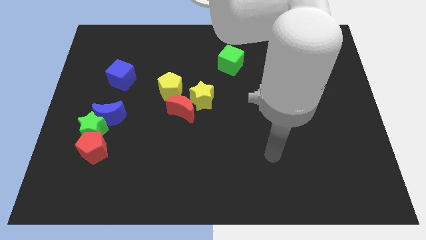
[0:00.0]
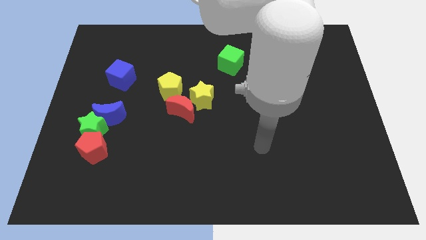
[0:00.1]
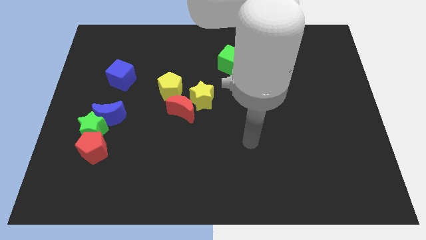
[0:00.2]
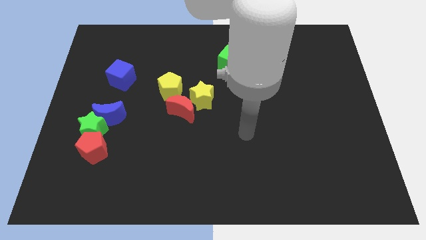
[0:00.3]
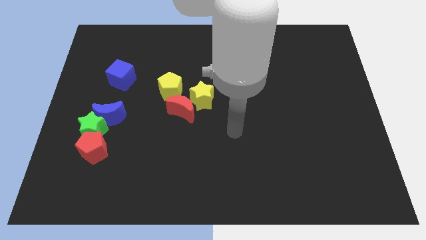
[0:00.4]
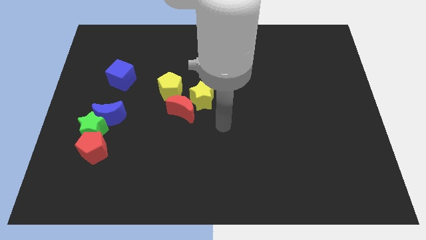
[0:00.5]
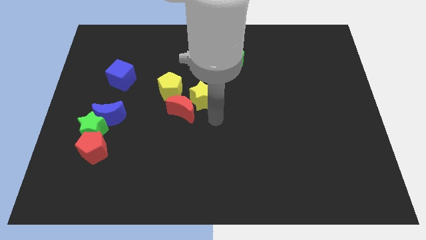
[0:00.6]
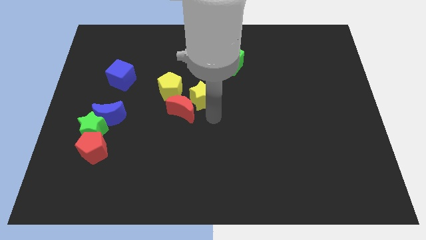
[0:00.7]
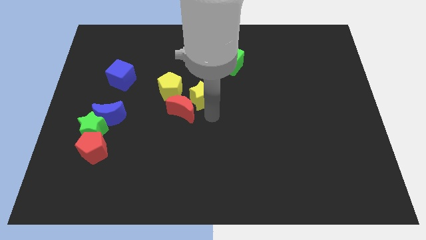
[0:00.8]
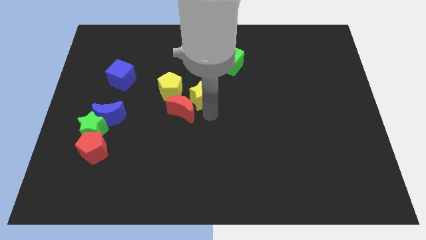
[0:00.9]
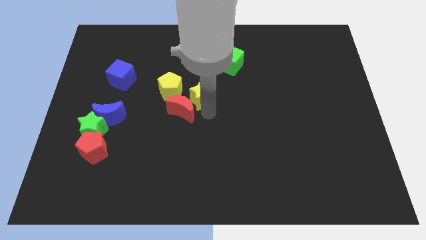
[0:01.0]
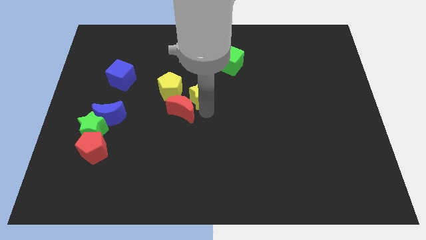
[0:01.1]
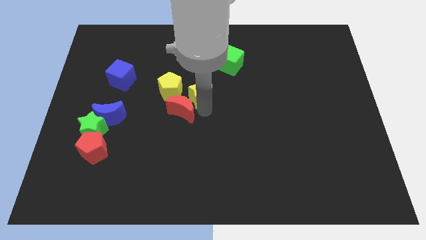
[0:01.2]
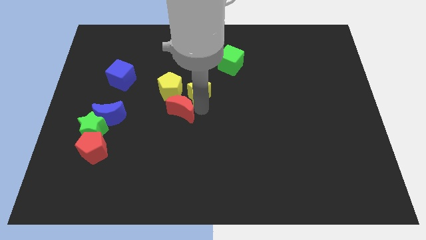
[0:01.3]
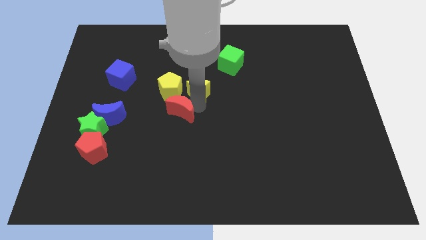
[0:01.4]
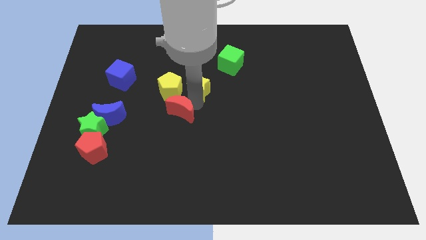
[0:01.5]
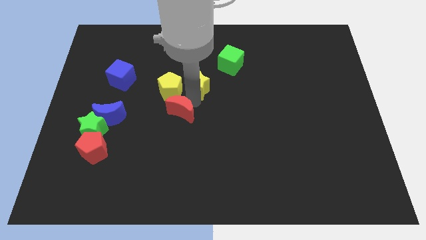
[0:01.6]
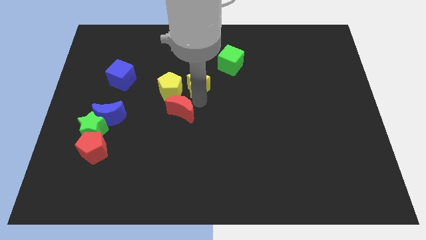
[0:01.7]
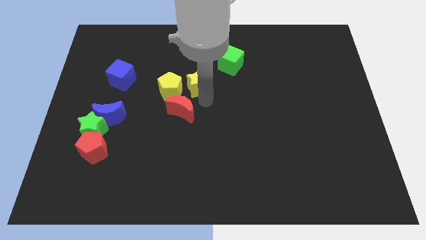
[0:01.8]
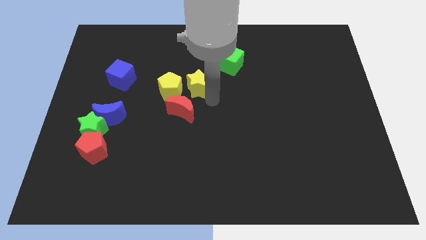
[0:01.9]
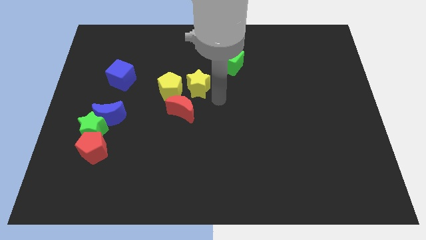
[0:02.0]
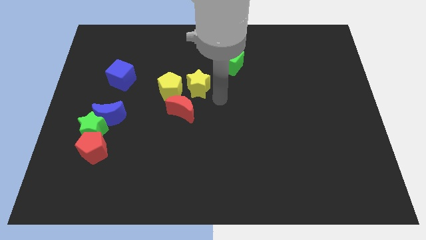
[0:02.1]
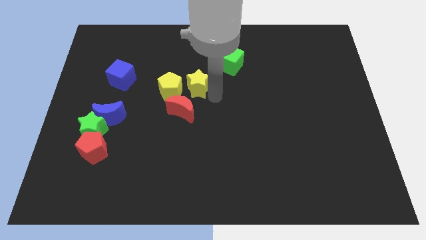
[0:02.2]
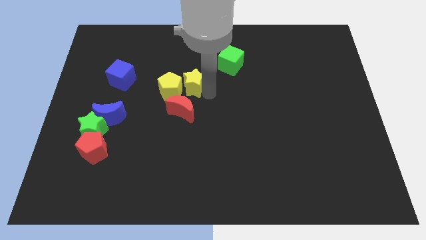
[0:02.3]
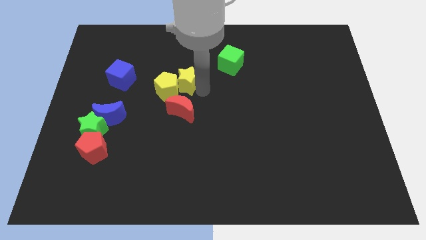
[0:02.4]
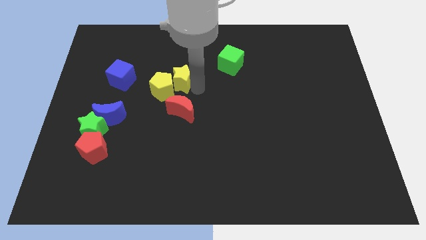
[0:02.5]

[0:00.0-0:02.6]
slightly move the yellow star upwards and then left

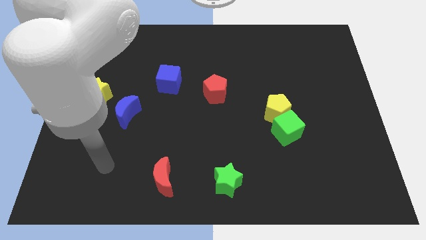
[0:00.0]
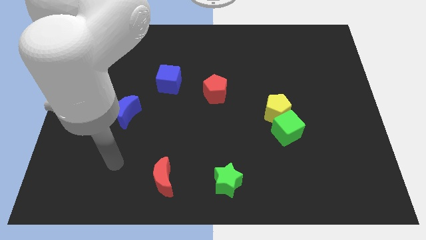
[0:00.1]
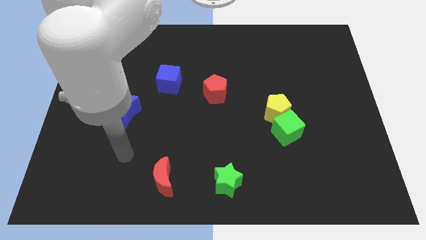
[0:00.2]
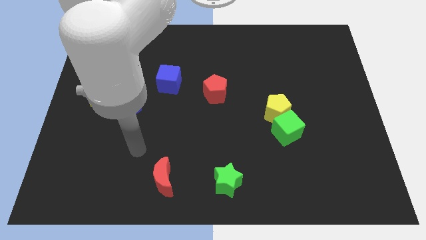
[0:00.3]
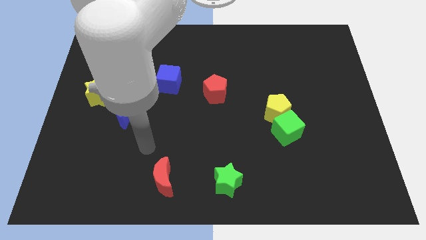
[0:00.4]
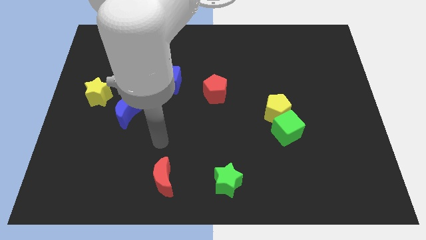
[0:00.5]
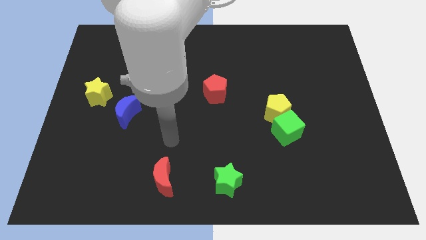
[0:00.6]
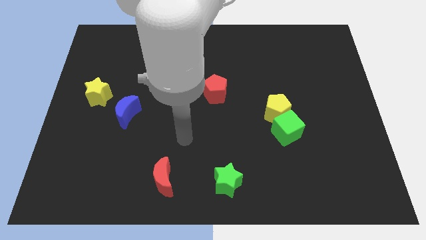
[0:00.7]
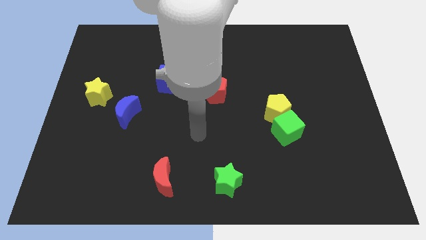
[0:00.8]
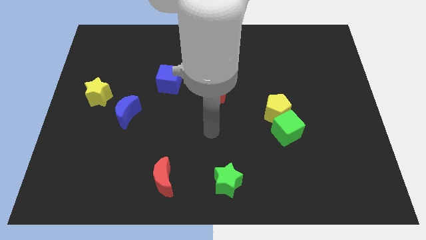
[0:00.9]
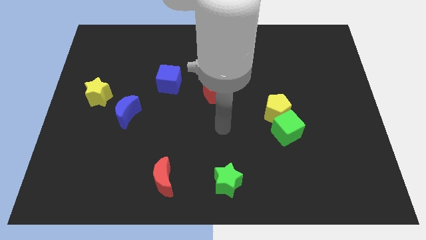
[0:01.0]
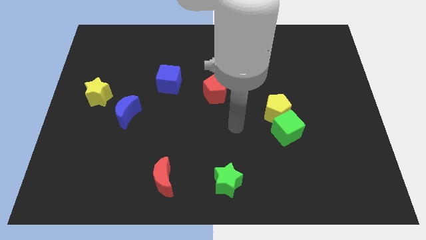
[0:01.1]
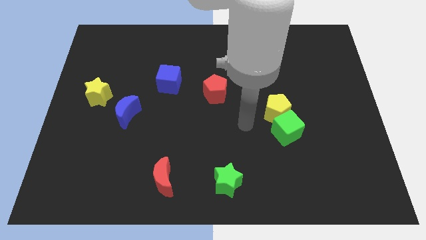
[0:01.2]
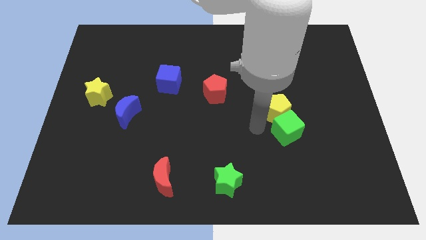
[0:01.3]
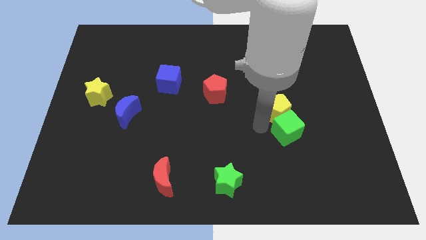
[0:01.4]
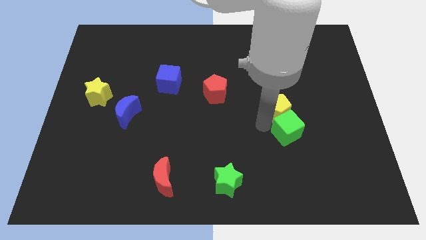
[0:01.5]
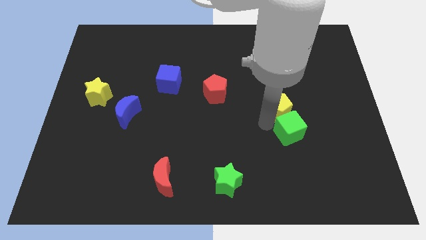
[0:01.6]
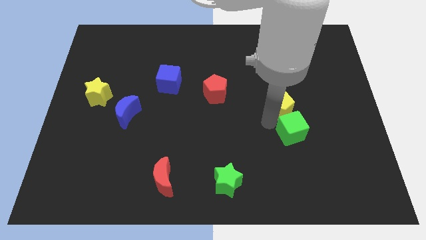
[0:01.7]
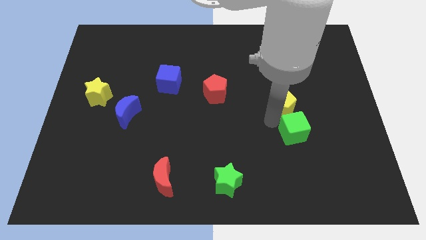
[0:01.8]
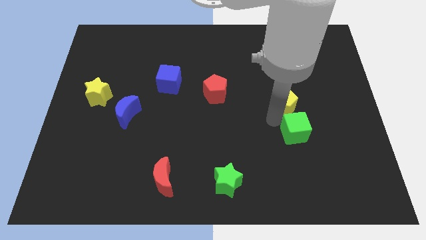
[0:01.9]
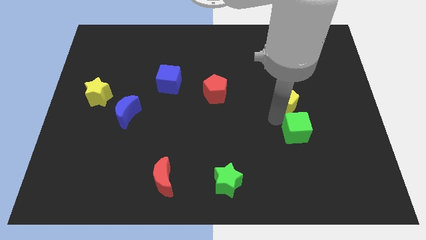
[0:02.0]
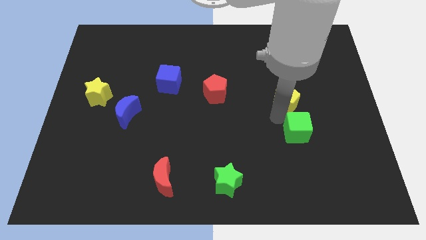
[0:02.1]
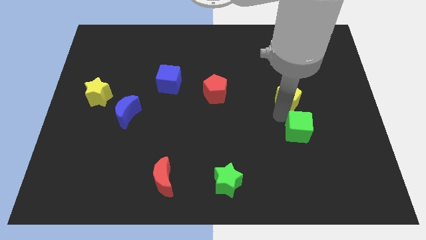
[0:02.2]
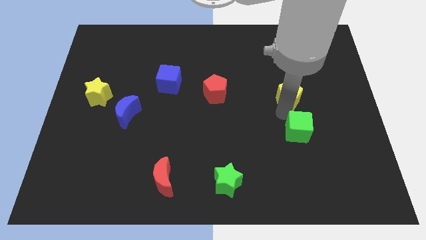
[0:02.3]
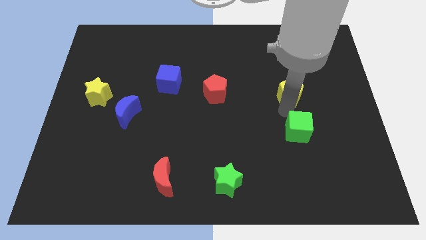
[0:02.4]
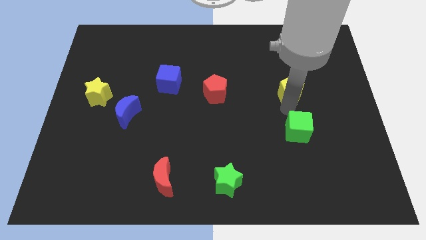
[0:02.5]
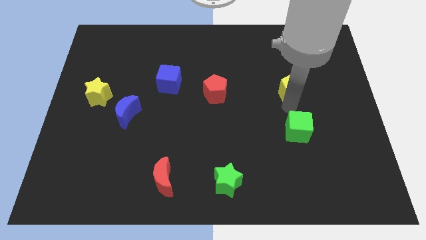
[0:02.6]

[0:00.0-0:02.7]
move the yellow pentagon up and to the right diagonally a little bit

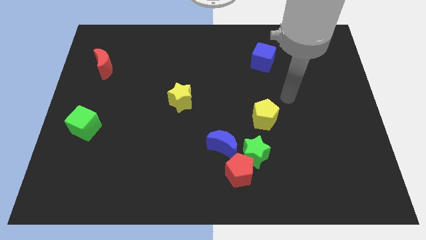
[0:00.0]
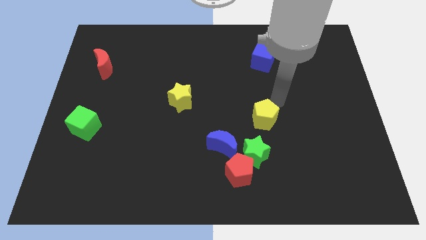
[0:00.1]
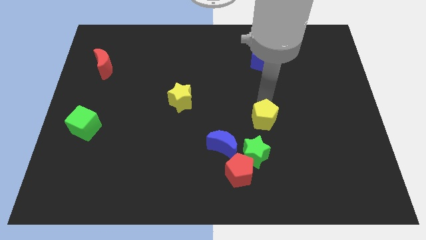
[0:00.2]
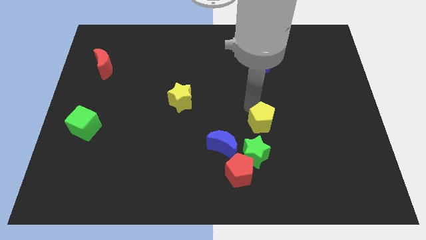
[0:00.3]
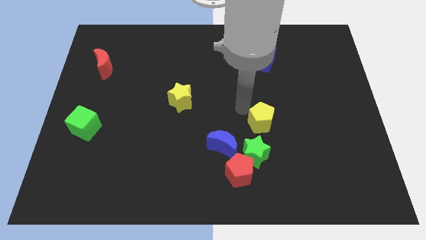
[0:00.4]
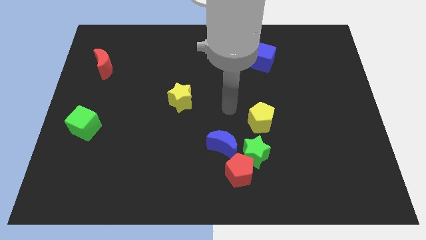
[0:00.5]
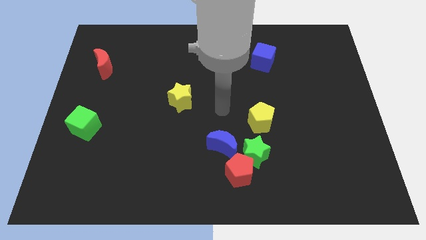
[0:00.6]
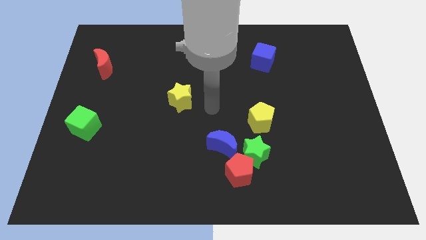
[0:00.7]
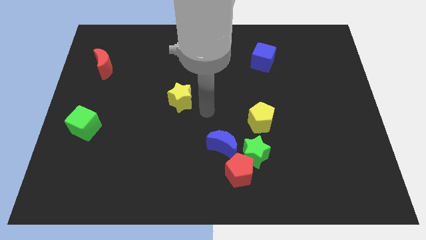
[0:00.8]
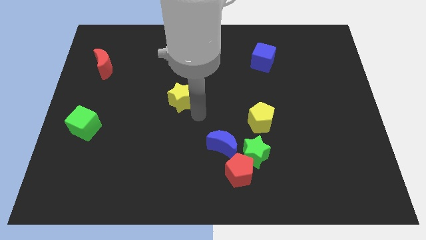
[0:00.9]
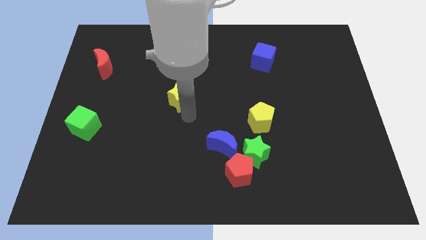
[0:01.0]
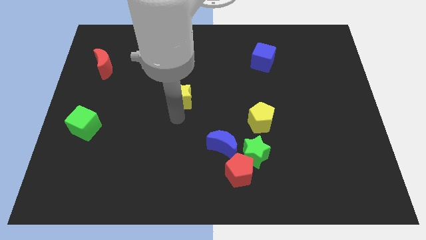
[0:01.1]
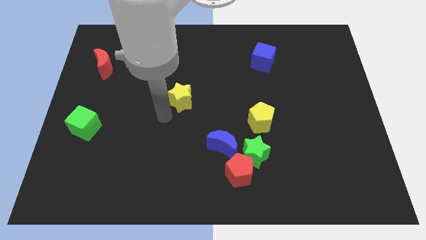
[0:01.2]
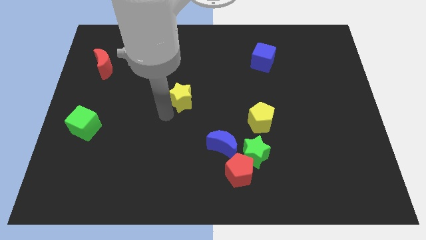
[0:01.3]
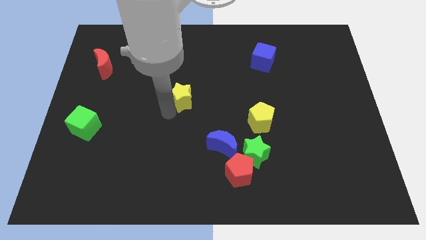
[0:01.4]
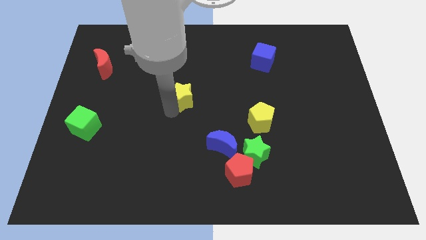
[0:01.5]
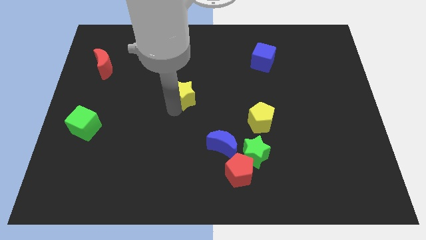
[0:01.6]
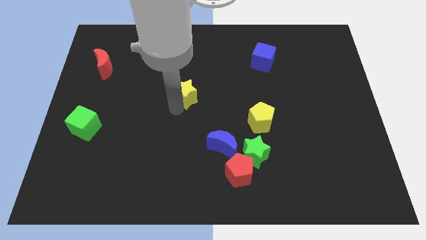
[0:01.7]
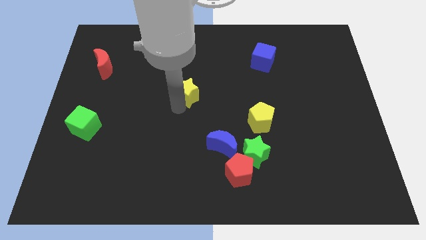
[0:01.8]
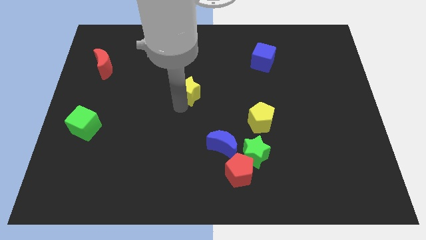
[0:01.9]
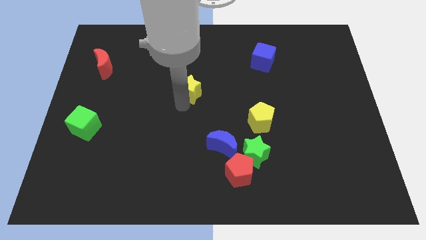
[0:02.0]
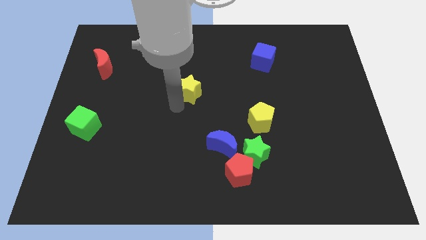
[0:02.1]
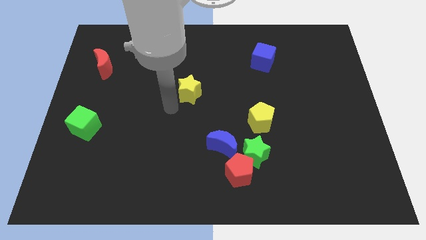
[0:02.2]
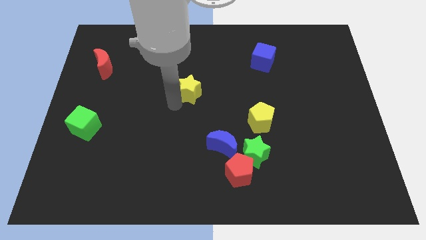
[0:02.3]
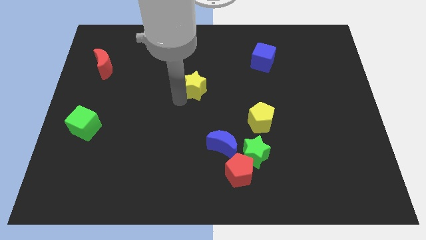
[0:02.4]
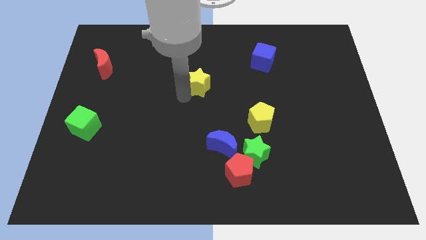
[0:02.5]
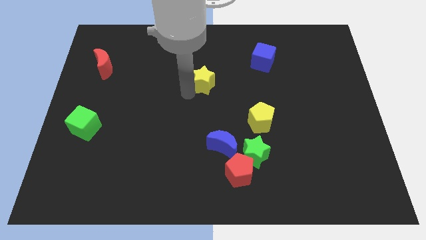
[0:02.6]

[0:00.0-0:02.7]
slide the yellow star up and to the right diagonally a little bit

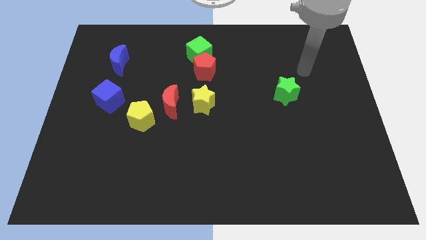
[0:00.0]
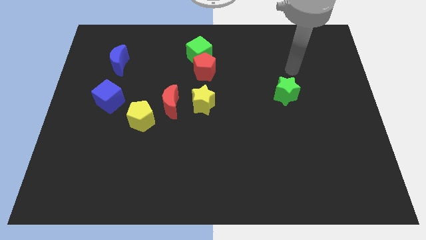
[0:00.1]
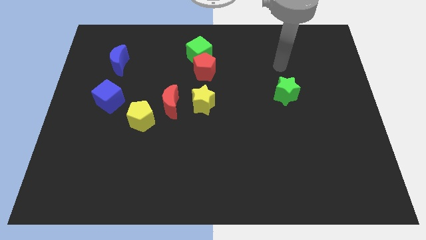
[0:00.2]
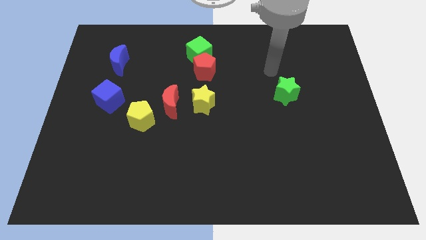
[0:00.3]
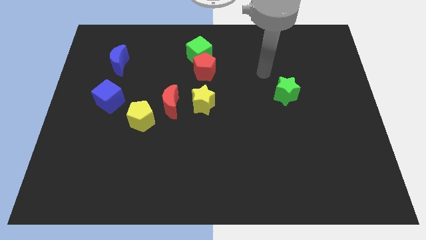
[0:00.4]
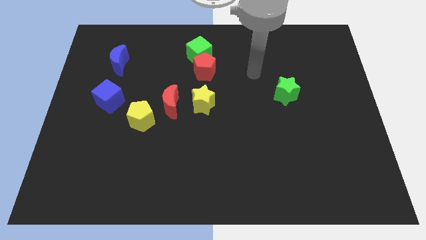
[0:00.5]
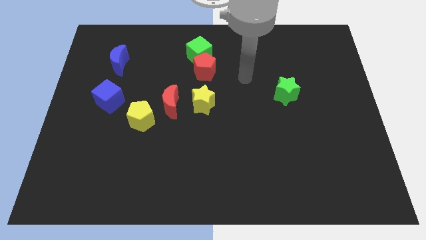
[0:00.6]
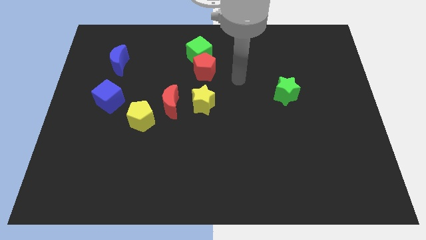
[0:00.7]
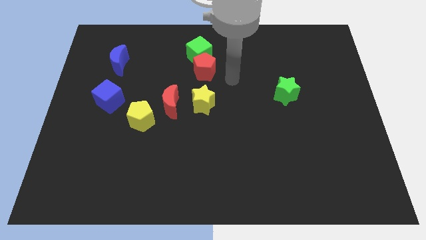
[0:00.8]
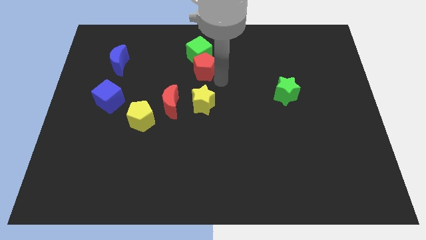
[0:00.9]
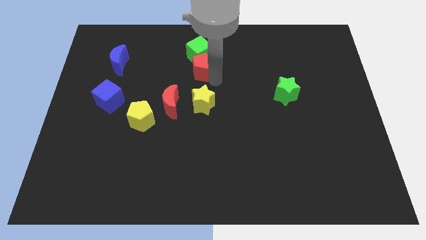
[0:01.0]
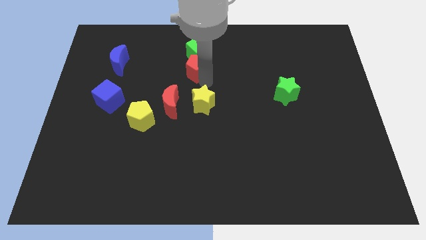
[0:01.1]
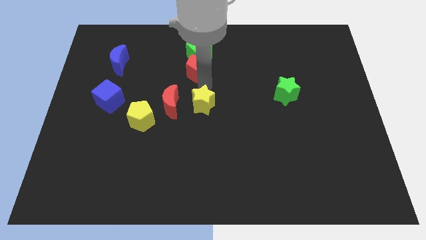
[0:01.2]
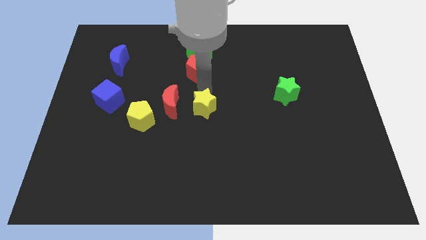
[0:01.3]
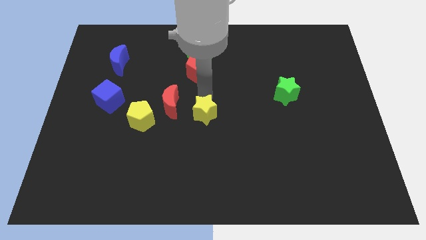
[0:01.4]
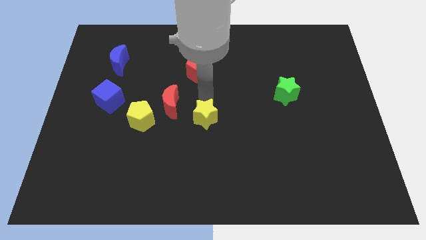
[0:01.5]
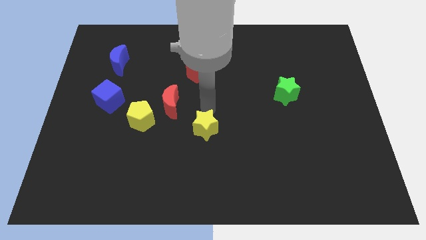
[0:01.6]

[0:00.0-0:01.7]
slide the yellow star somewhat downwards
